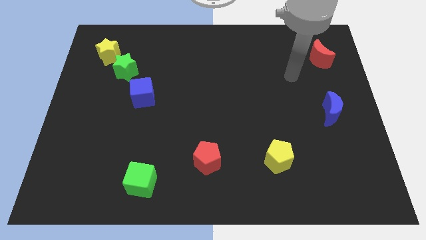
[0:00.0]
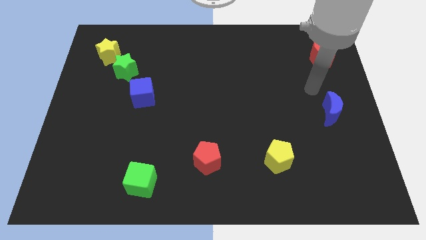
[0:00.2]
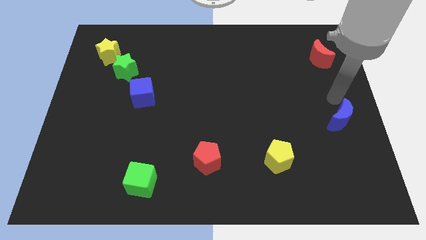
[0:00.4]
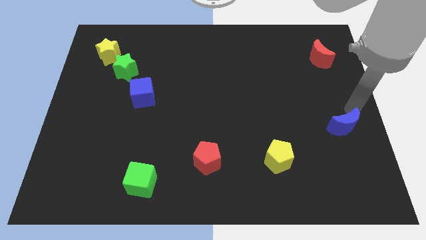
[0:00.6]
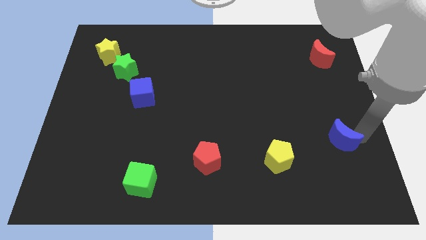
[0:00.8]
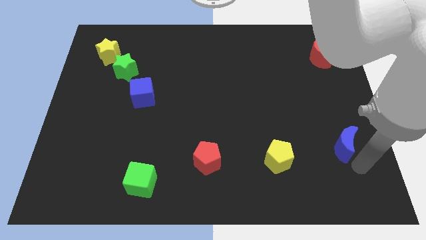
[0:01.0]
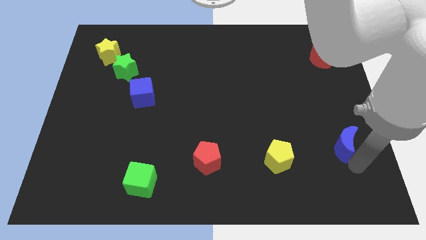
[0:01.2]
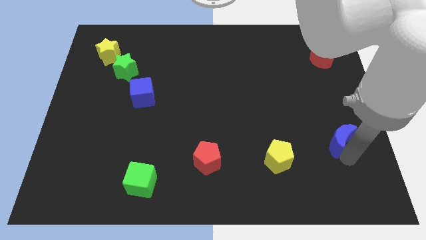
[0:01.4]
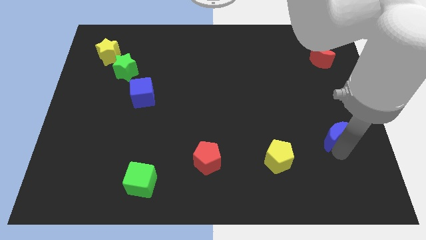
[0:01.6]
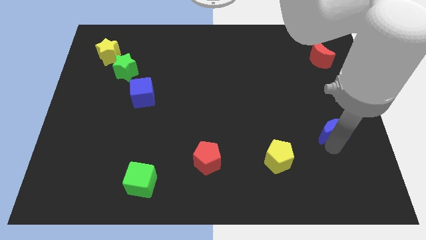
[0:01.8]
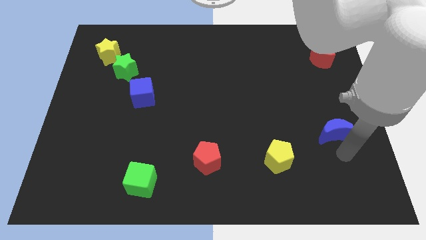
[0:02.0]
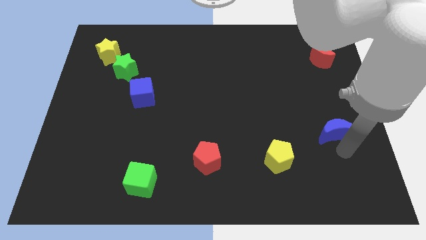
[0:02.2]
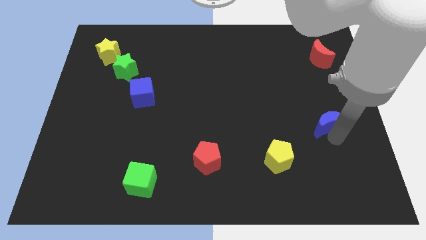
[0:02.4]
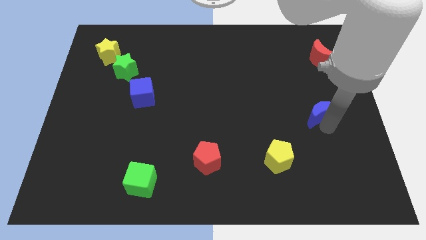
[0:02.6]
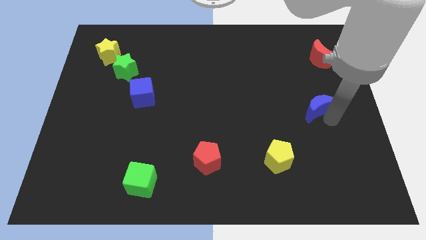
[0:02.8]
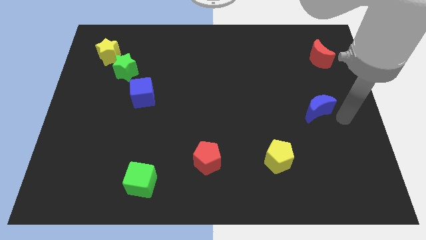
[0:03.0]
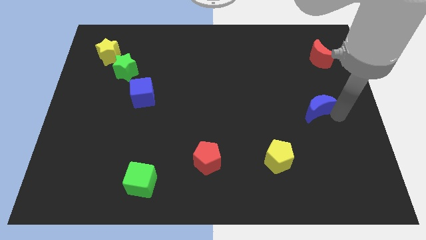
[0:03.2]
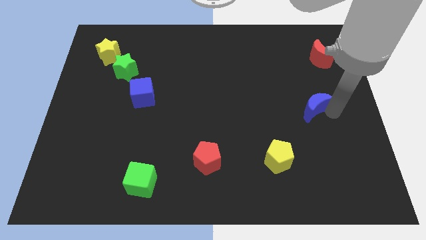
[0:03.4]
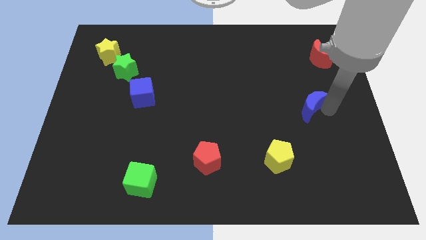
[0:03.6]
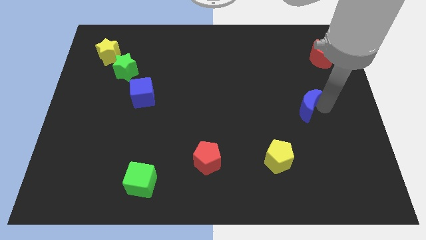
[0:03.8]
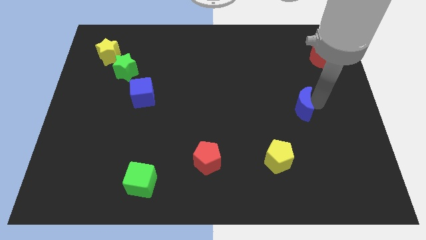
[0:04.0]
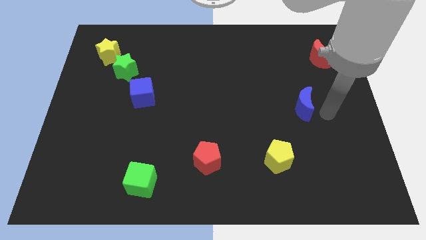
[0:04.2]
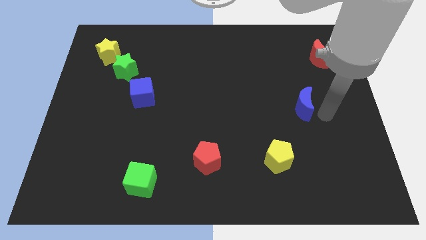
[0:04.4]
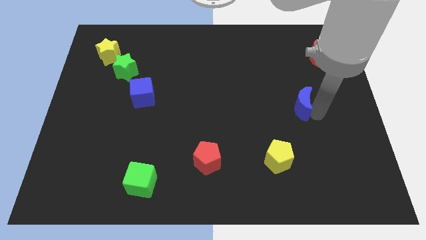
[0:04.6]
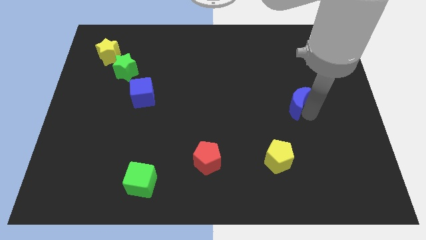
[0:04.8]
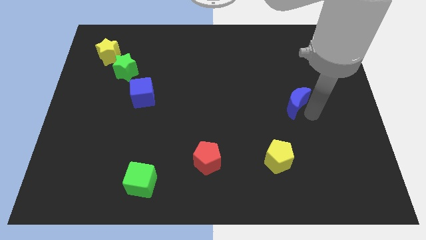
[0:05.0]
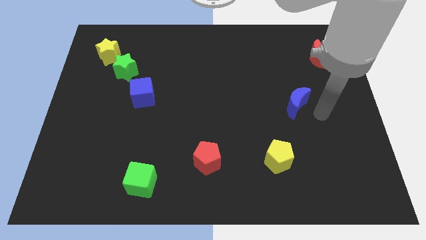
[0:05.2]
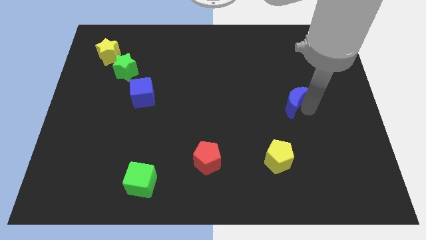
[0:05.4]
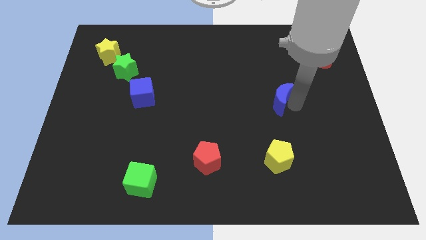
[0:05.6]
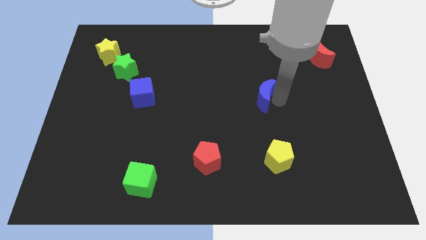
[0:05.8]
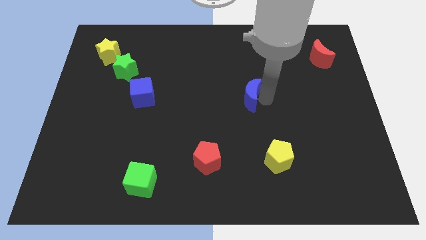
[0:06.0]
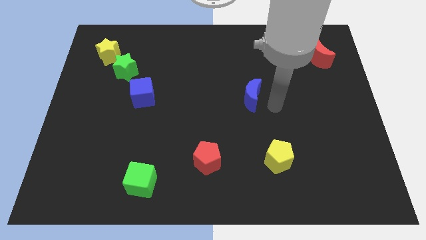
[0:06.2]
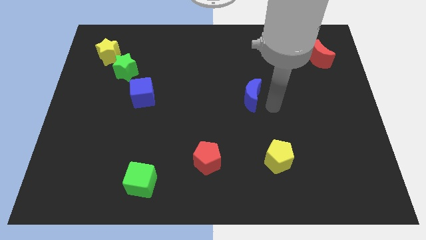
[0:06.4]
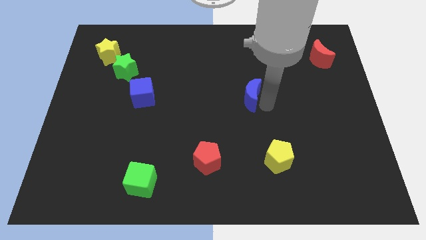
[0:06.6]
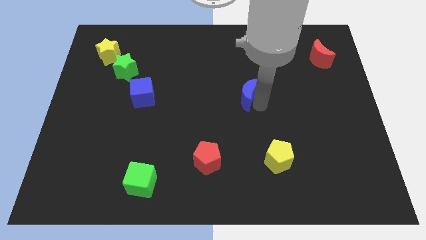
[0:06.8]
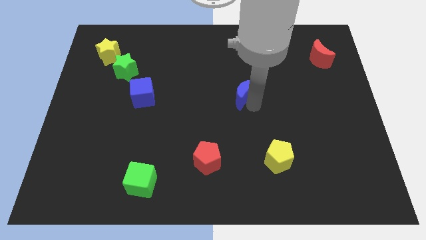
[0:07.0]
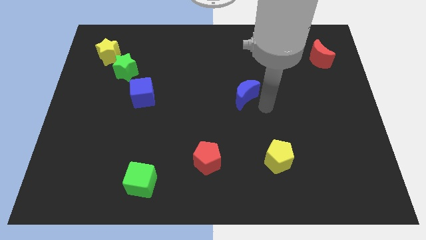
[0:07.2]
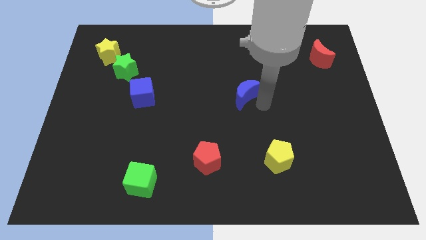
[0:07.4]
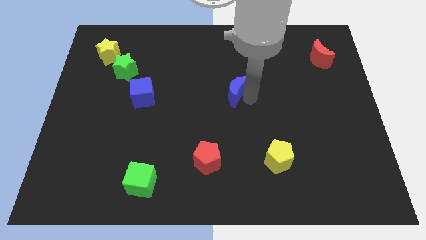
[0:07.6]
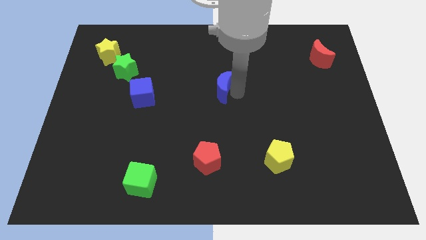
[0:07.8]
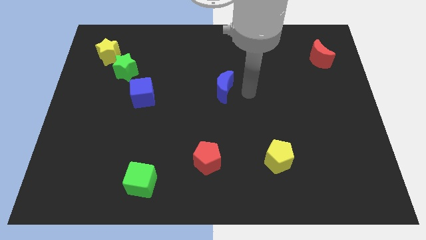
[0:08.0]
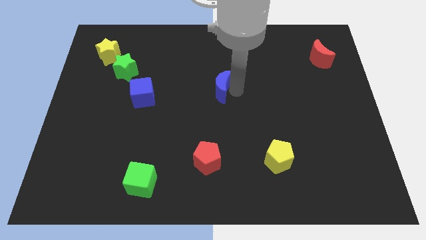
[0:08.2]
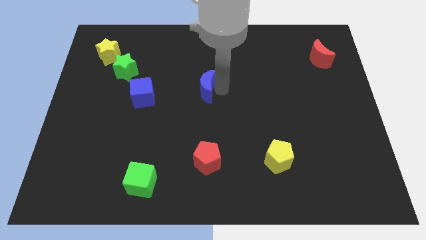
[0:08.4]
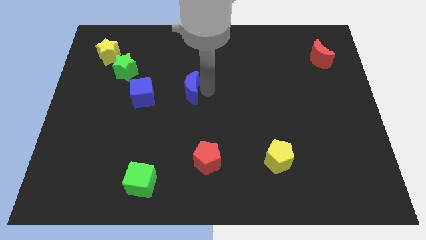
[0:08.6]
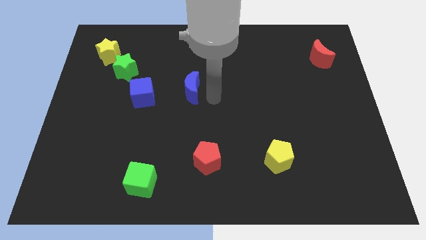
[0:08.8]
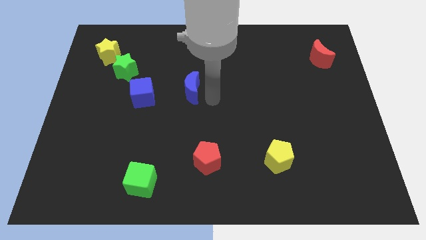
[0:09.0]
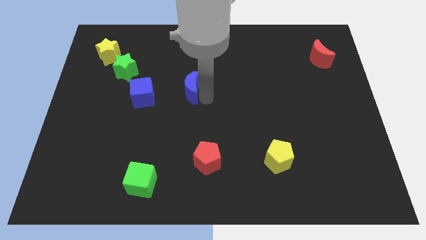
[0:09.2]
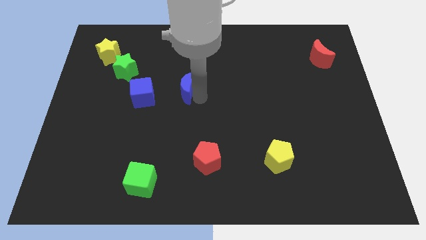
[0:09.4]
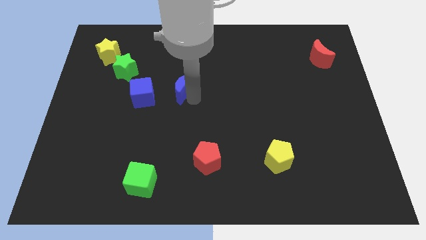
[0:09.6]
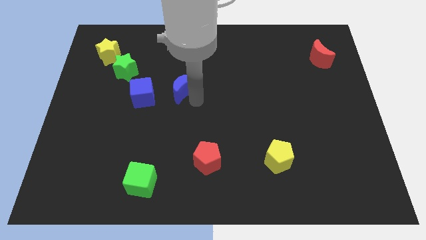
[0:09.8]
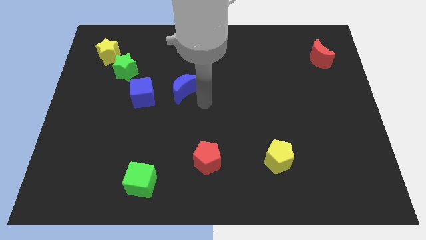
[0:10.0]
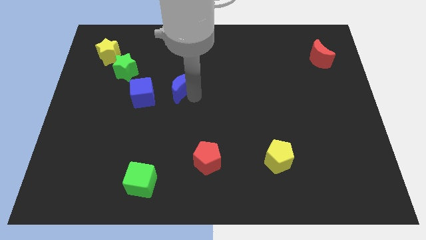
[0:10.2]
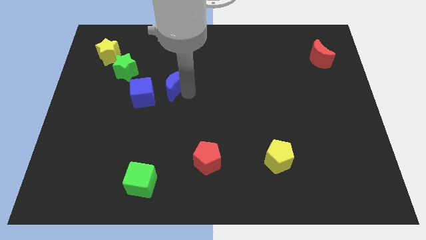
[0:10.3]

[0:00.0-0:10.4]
move the blue moon to the top right side of the blue cube

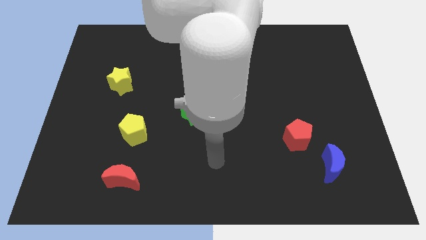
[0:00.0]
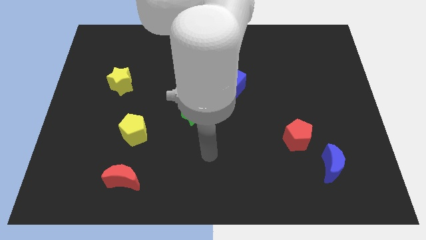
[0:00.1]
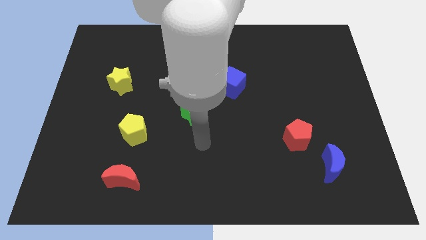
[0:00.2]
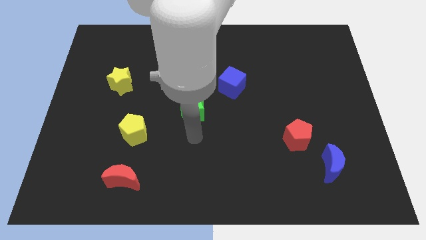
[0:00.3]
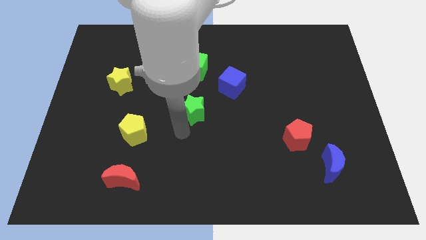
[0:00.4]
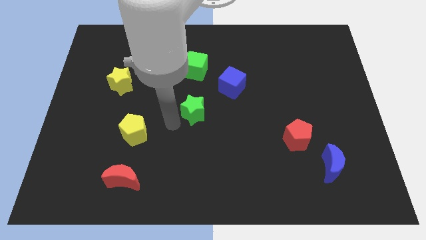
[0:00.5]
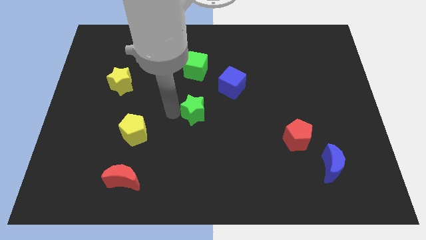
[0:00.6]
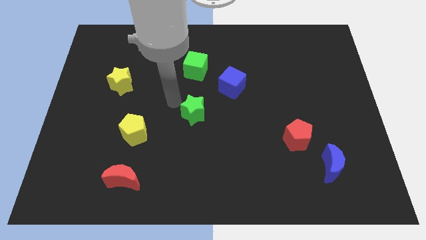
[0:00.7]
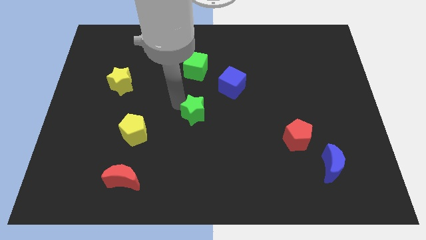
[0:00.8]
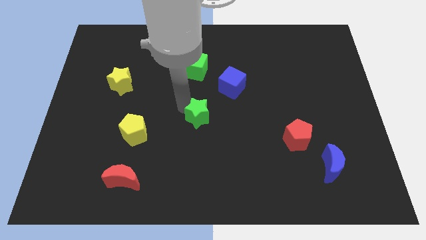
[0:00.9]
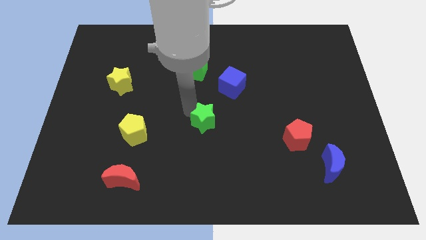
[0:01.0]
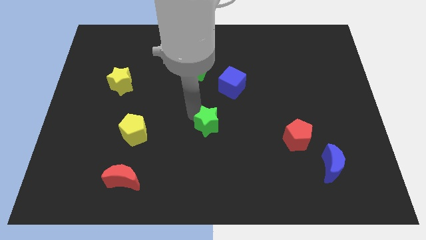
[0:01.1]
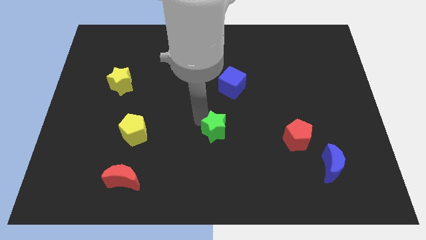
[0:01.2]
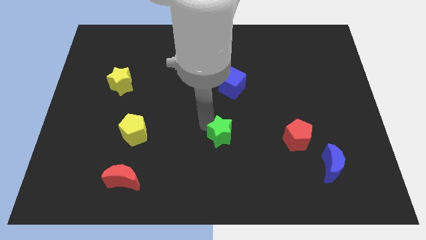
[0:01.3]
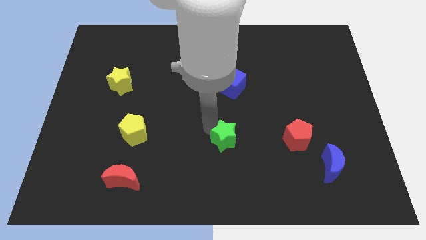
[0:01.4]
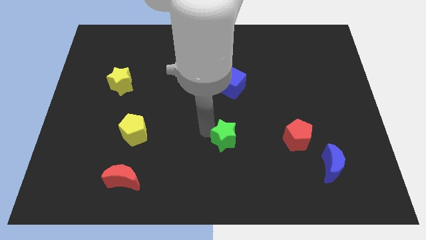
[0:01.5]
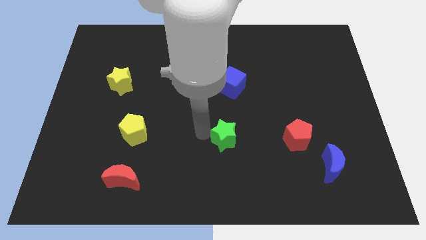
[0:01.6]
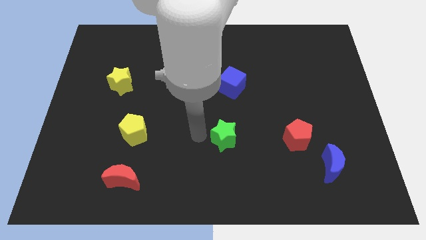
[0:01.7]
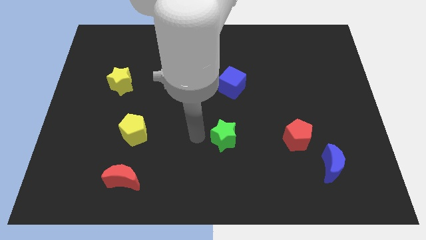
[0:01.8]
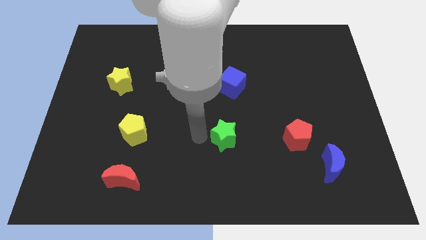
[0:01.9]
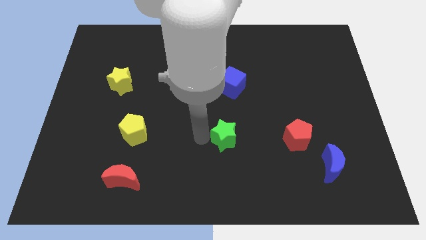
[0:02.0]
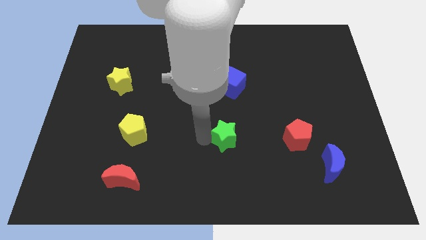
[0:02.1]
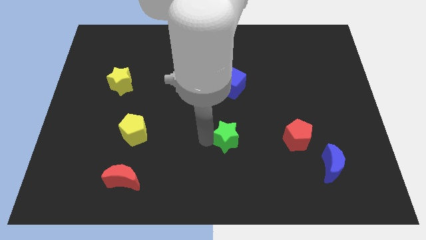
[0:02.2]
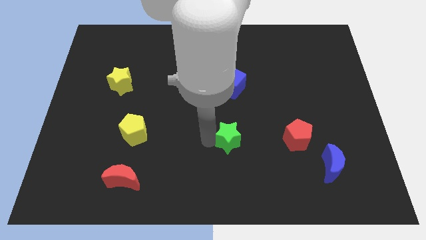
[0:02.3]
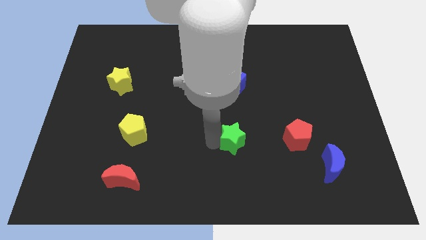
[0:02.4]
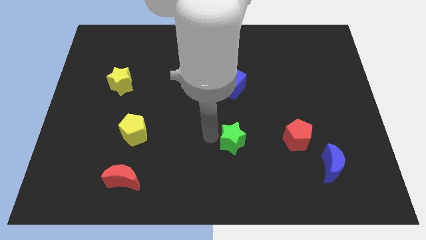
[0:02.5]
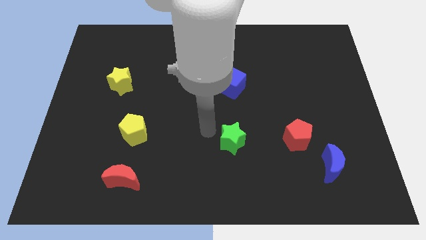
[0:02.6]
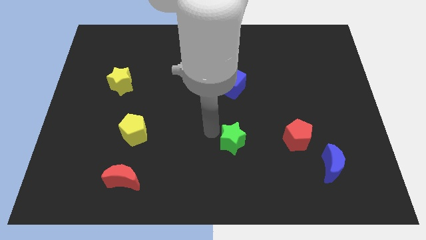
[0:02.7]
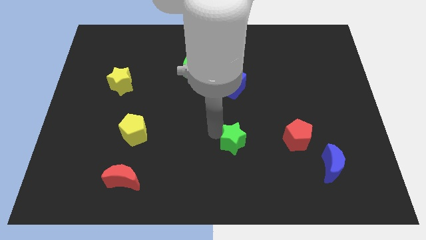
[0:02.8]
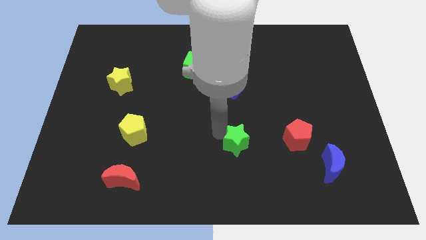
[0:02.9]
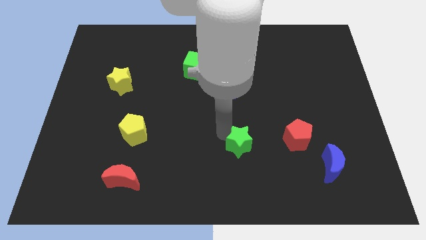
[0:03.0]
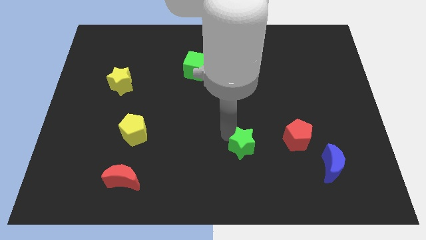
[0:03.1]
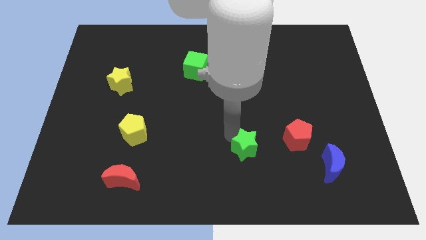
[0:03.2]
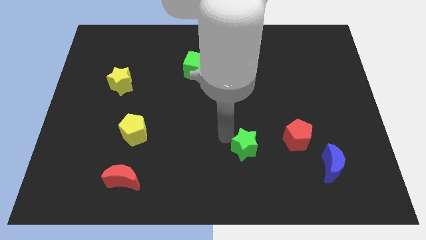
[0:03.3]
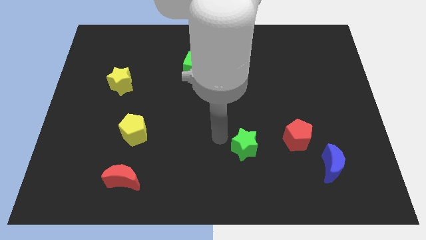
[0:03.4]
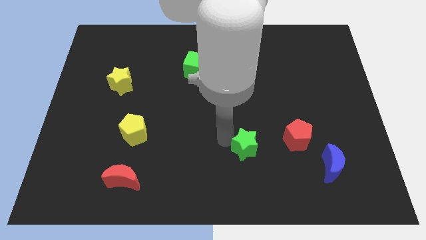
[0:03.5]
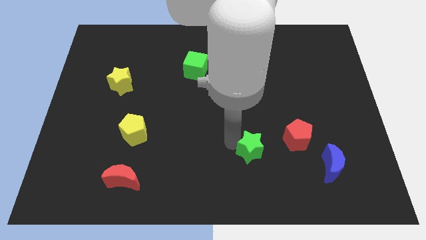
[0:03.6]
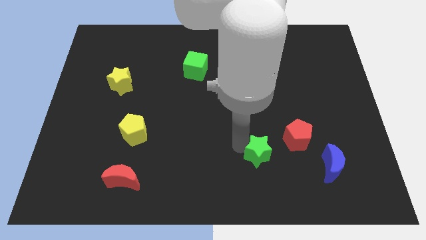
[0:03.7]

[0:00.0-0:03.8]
put the green star diagonally down and to the left of the red pentagon
